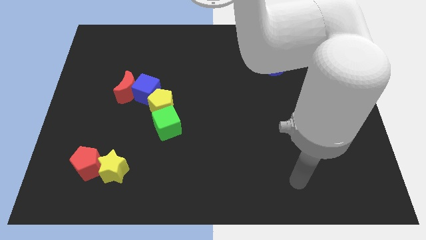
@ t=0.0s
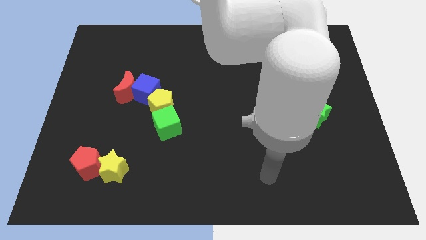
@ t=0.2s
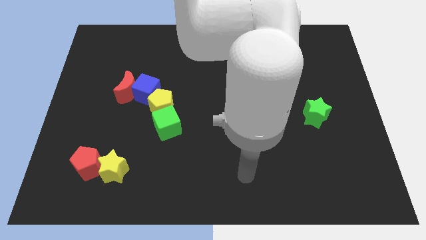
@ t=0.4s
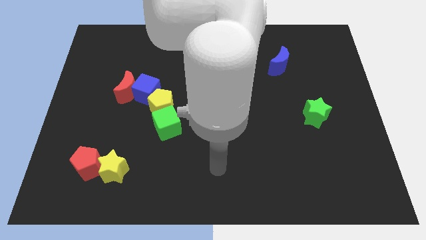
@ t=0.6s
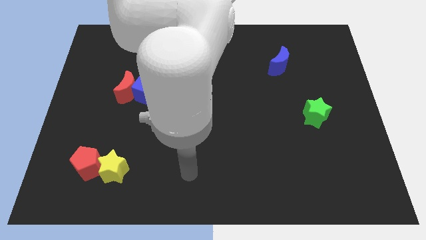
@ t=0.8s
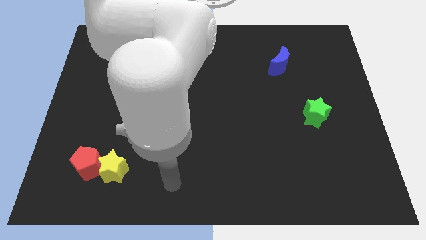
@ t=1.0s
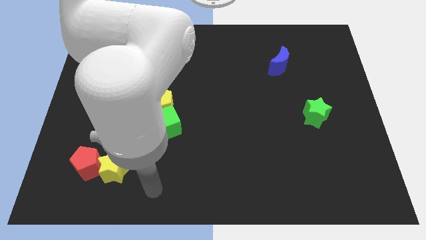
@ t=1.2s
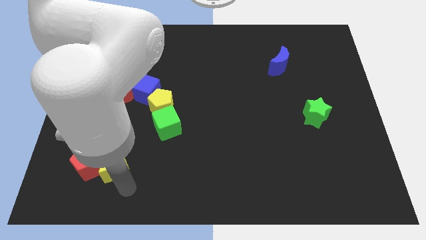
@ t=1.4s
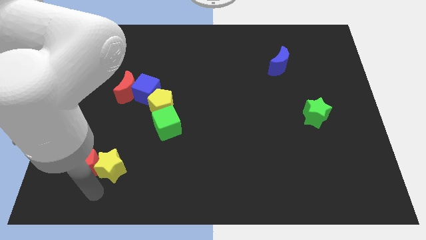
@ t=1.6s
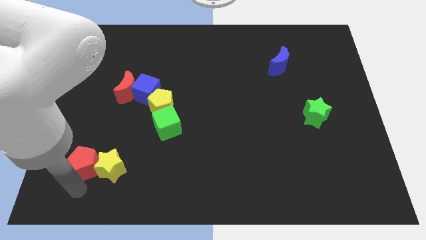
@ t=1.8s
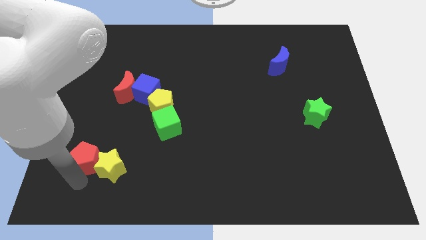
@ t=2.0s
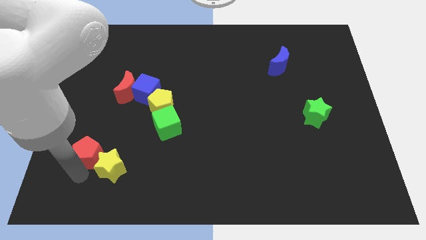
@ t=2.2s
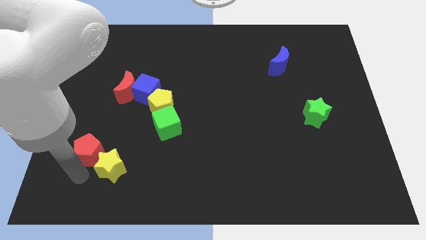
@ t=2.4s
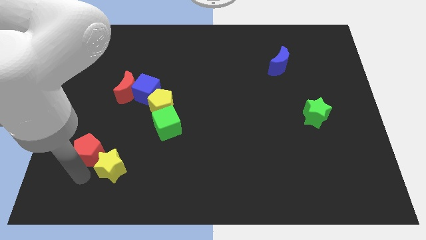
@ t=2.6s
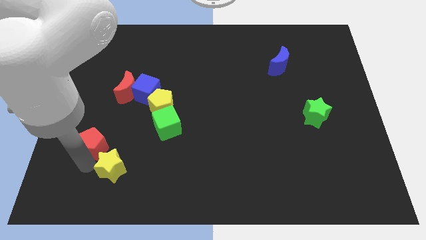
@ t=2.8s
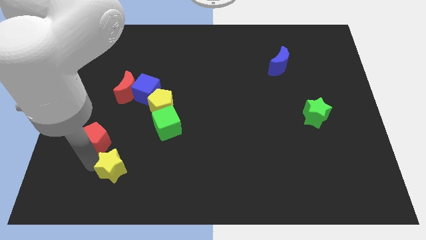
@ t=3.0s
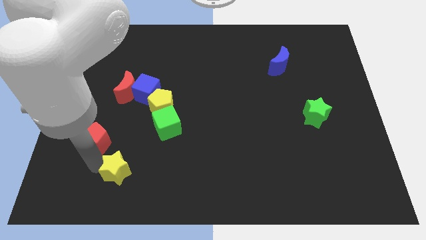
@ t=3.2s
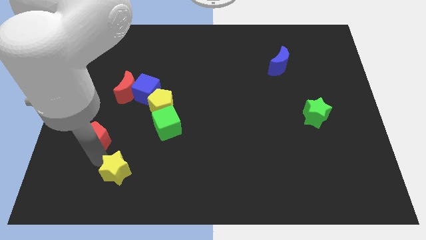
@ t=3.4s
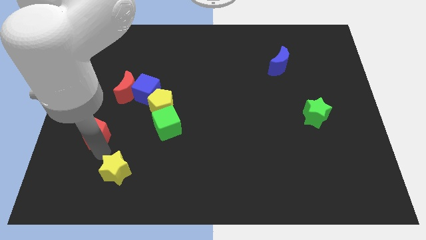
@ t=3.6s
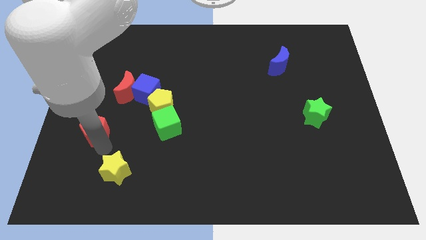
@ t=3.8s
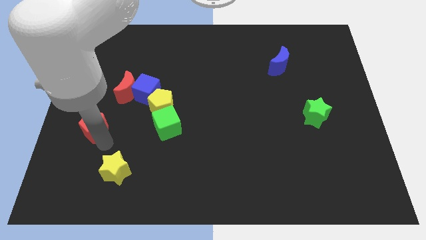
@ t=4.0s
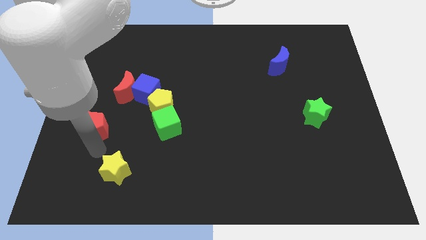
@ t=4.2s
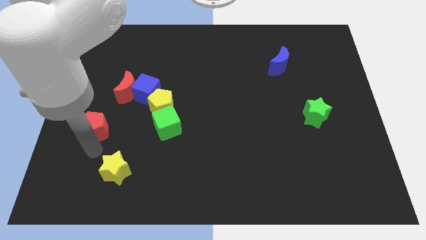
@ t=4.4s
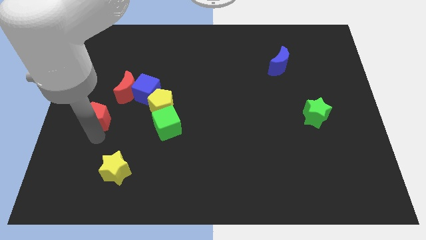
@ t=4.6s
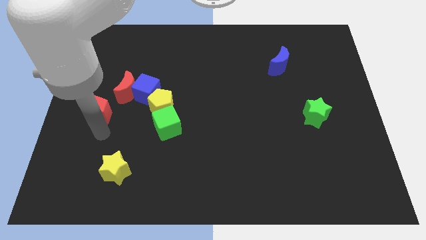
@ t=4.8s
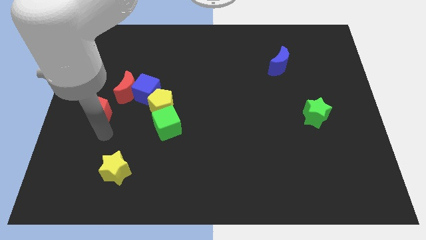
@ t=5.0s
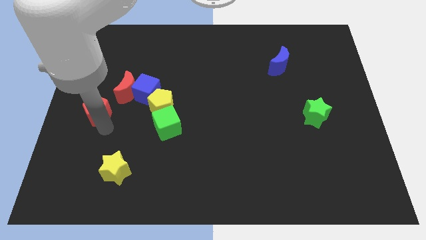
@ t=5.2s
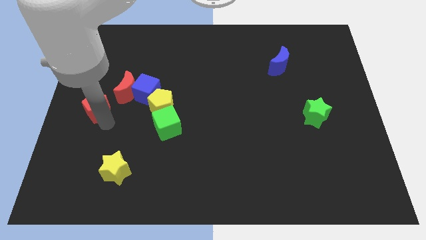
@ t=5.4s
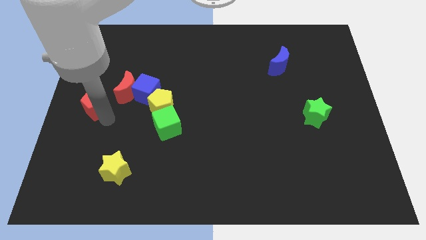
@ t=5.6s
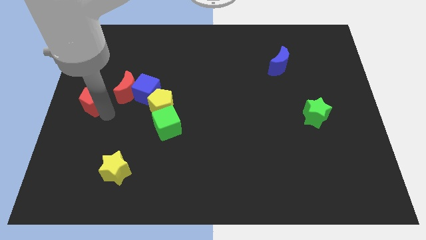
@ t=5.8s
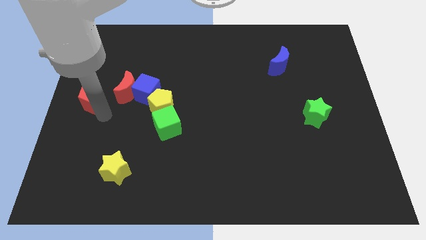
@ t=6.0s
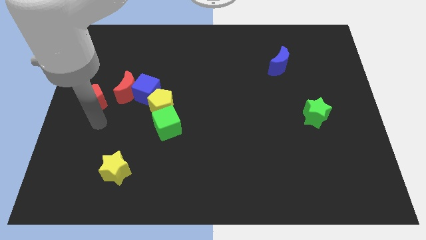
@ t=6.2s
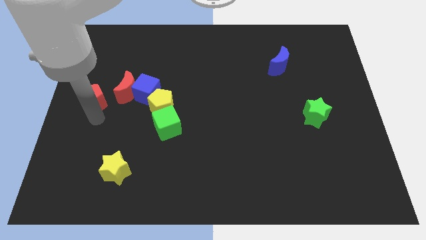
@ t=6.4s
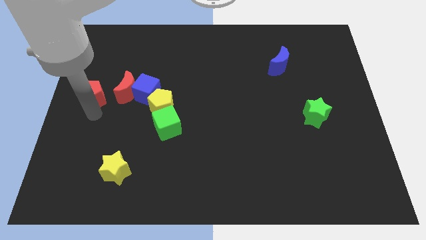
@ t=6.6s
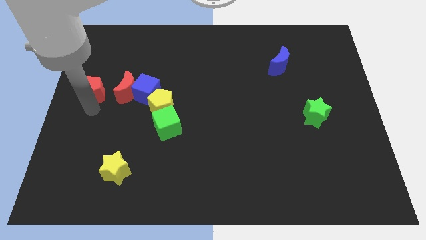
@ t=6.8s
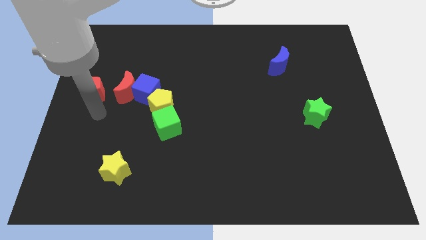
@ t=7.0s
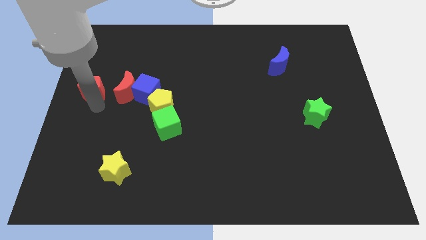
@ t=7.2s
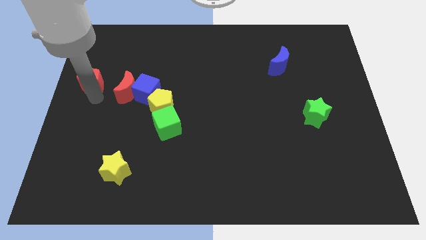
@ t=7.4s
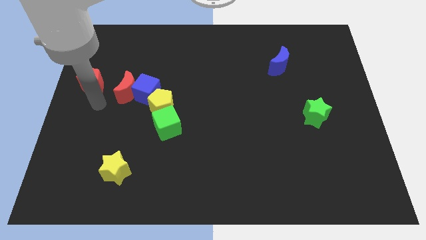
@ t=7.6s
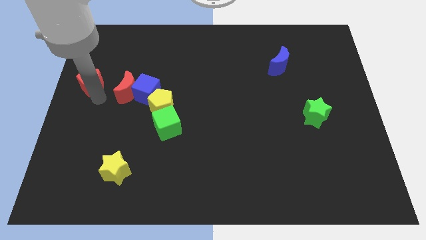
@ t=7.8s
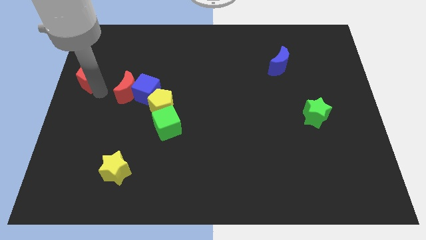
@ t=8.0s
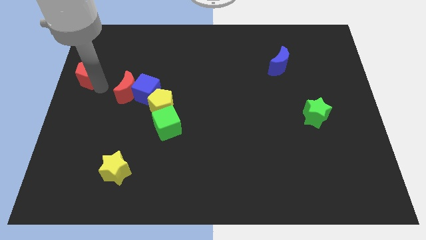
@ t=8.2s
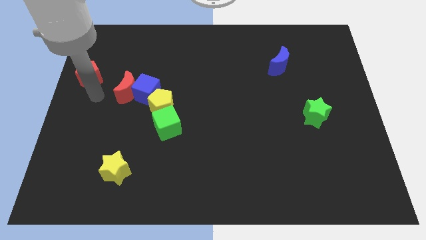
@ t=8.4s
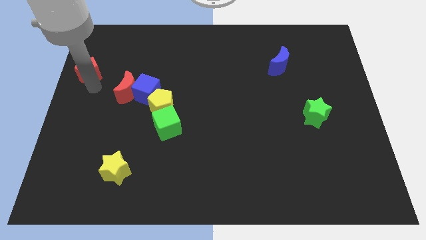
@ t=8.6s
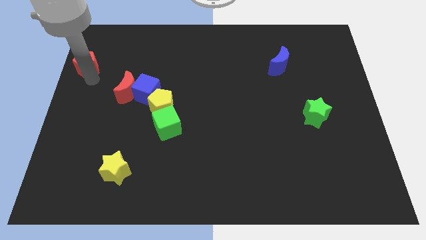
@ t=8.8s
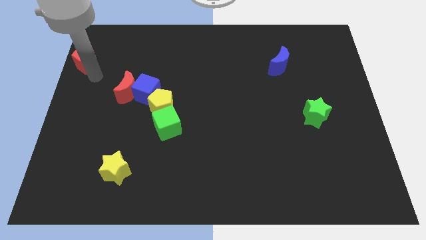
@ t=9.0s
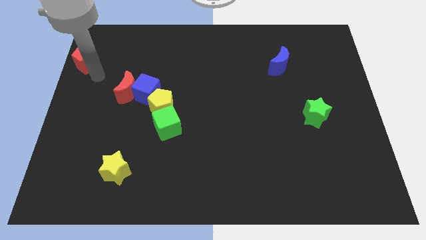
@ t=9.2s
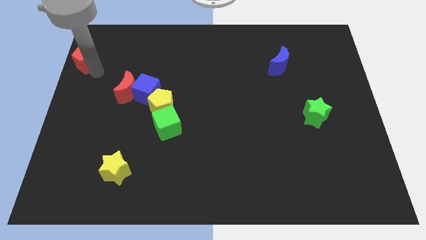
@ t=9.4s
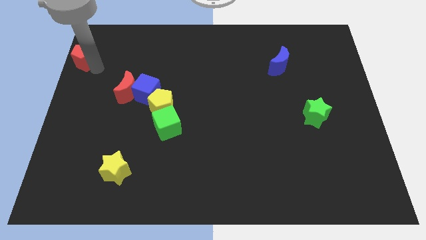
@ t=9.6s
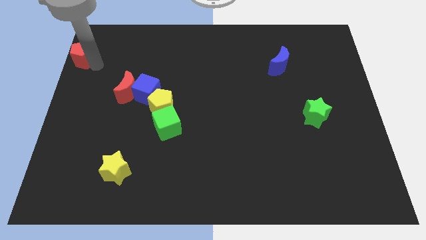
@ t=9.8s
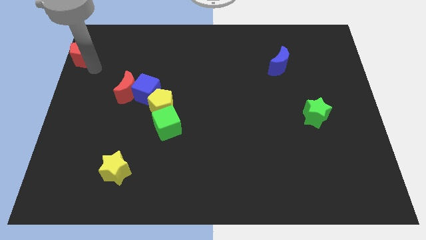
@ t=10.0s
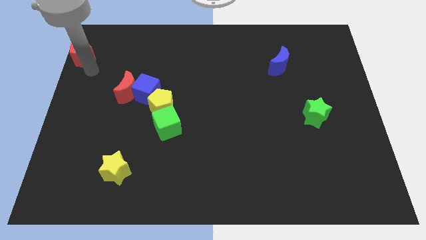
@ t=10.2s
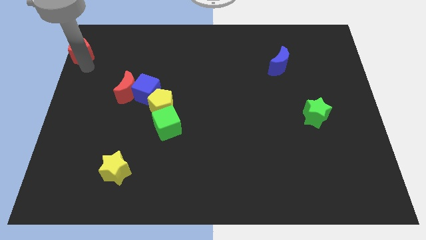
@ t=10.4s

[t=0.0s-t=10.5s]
put the red pentagon to the top left
